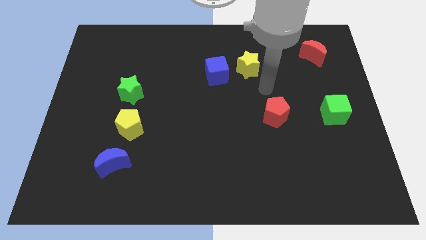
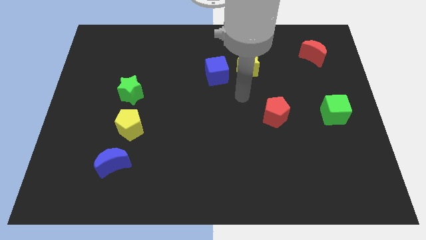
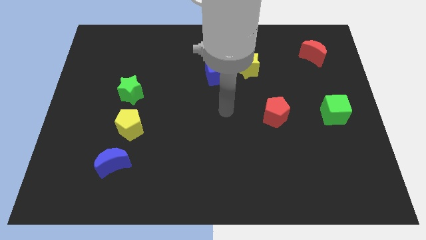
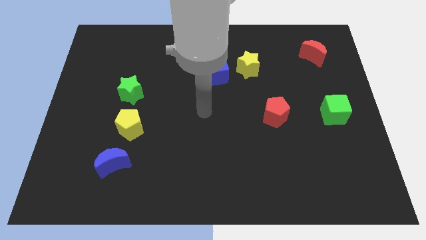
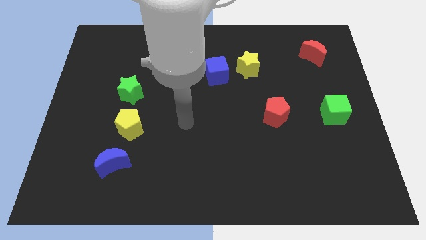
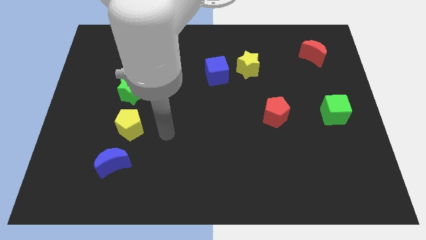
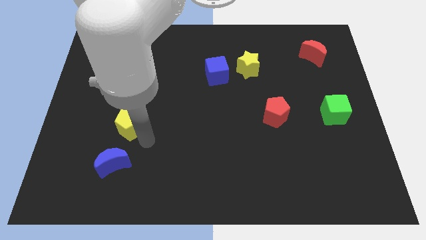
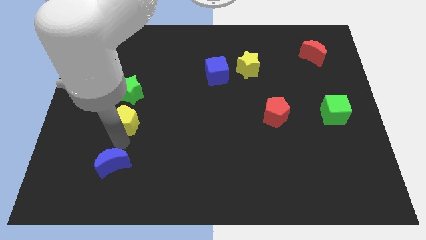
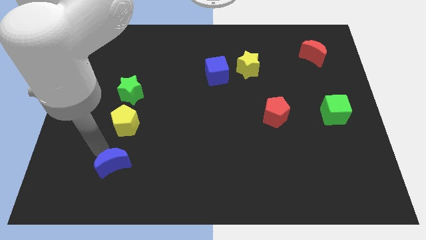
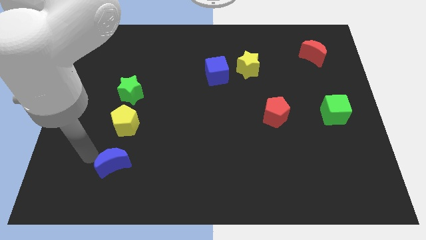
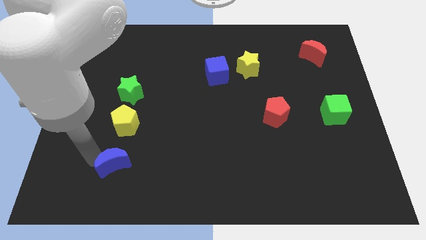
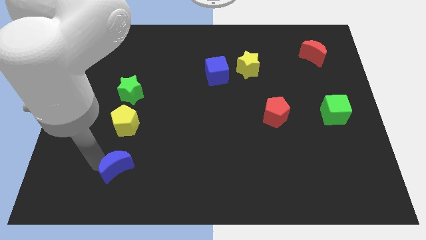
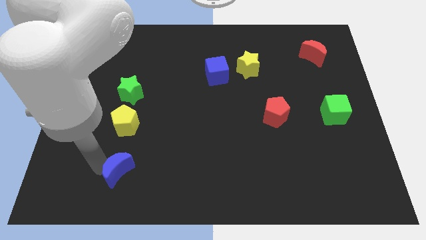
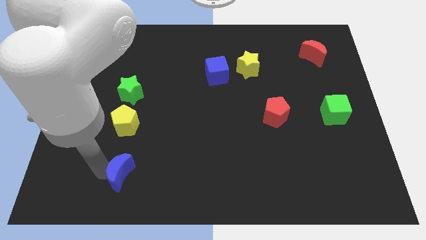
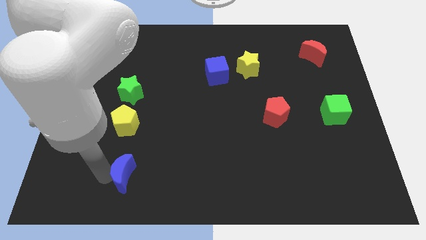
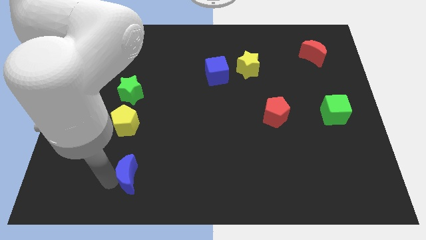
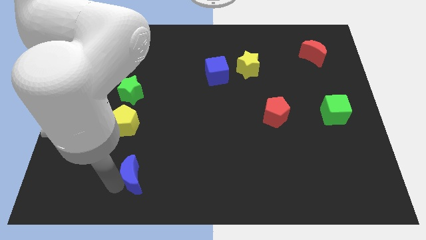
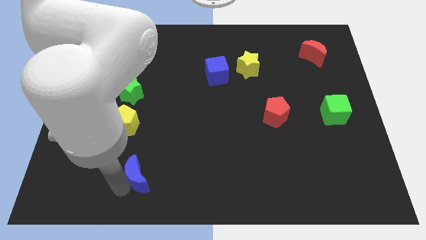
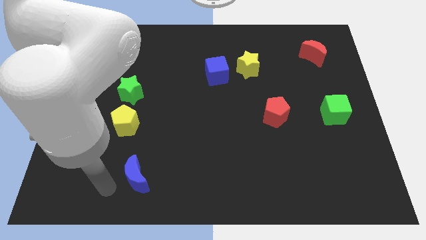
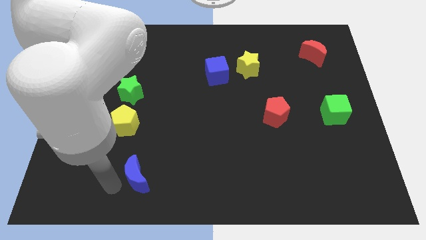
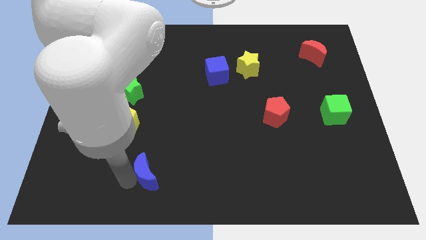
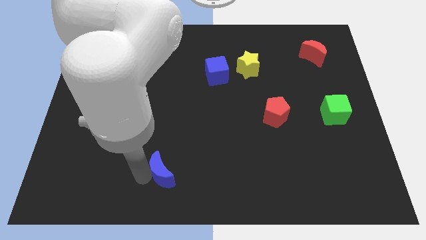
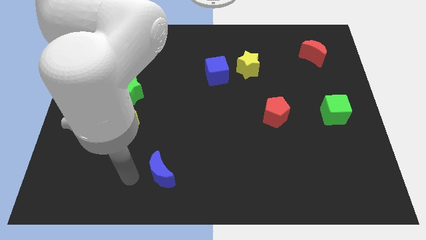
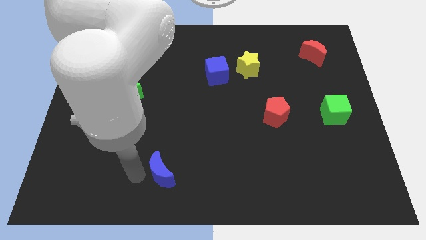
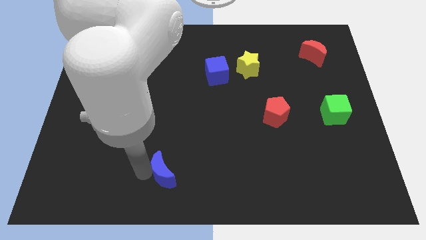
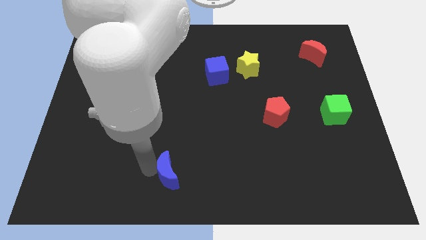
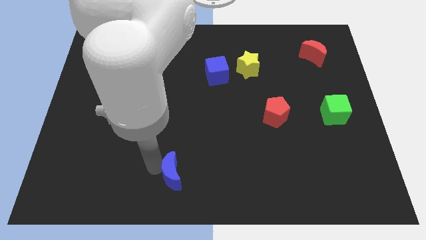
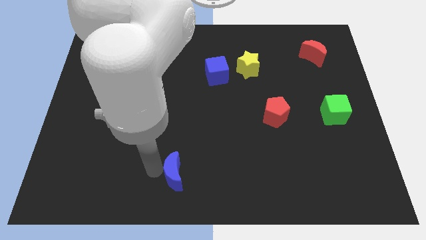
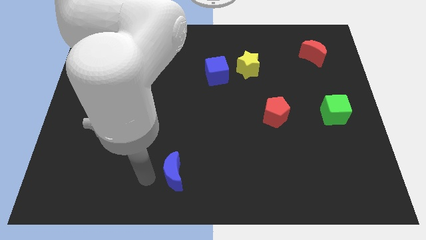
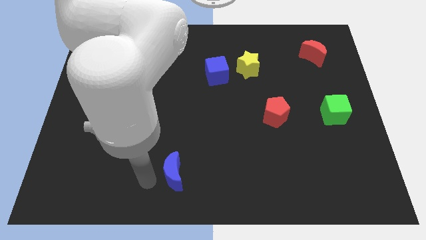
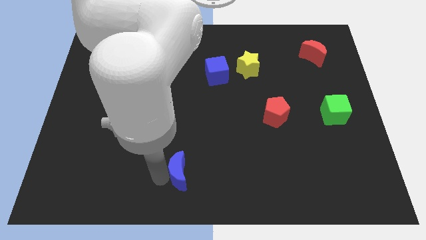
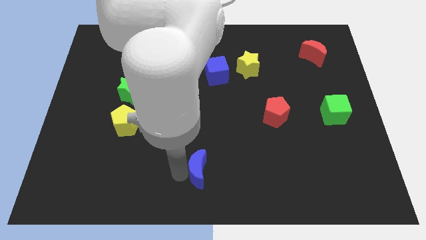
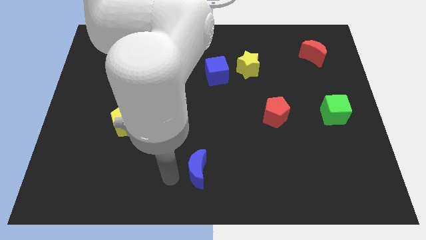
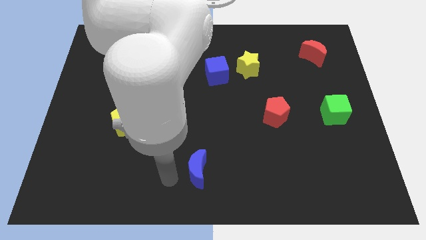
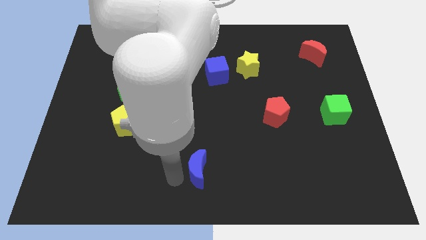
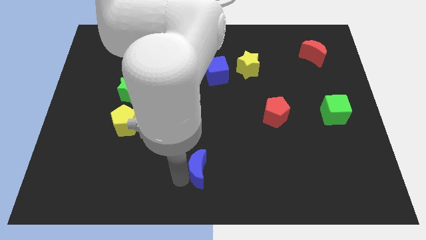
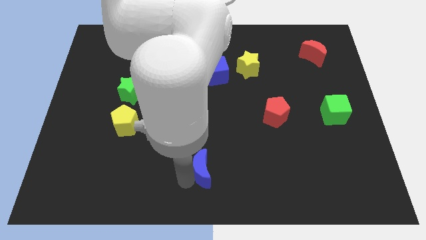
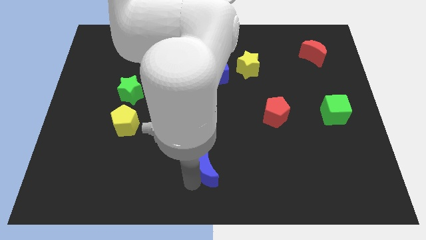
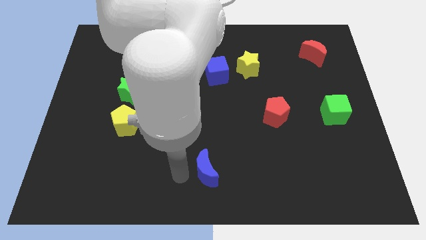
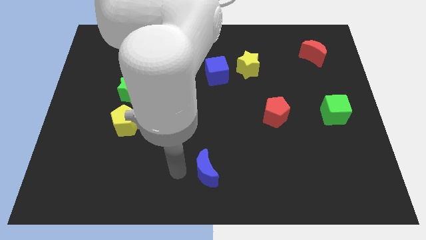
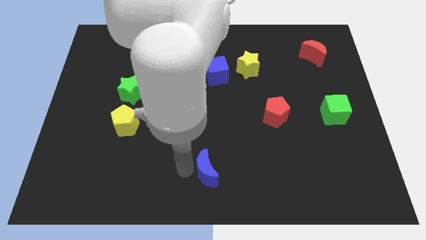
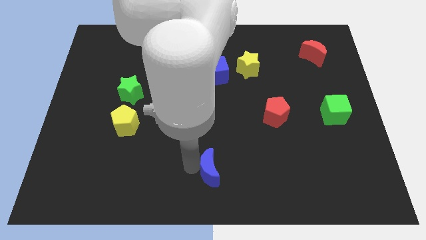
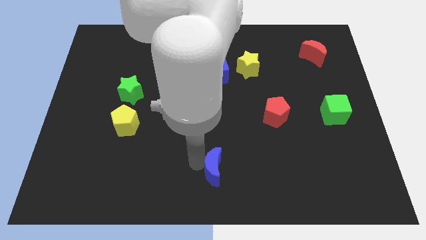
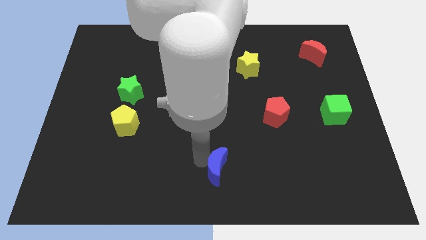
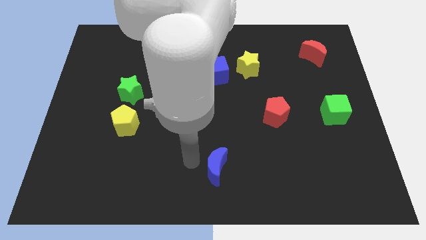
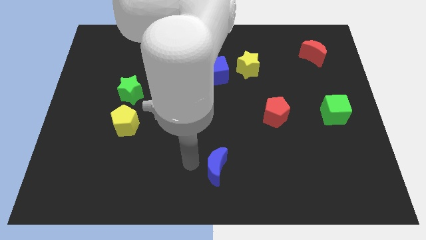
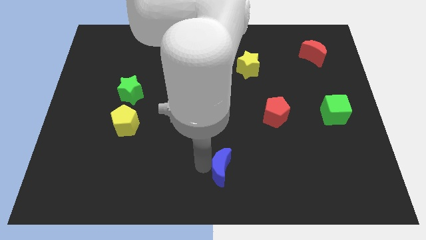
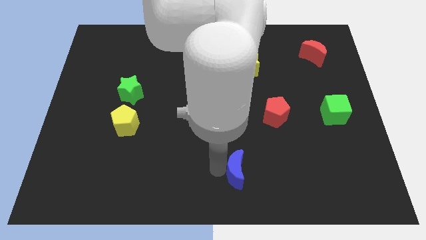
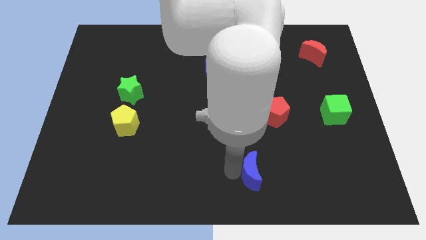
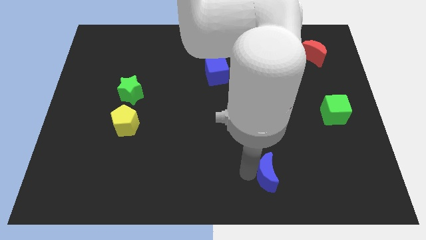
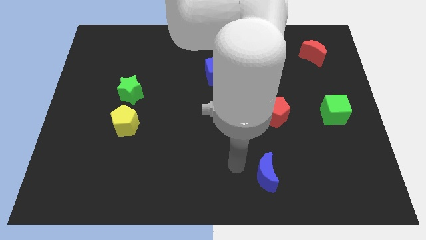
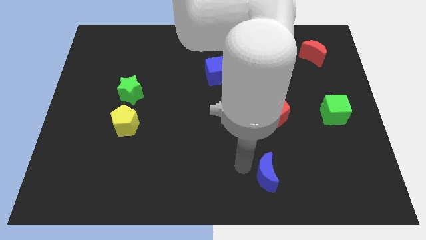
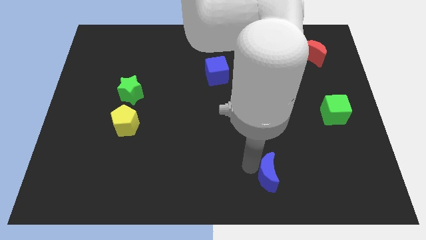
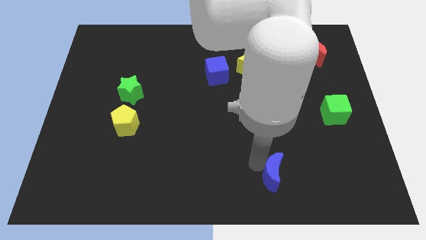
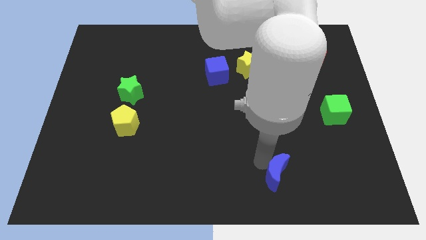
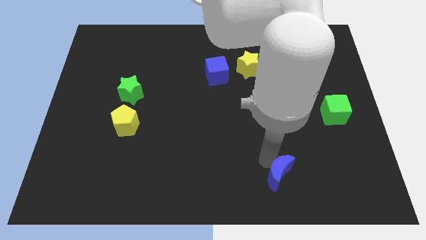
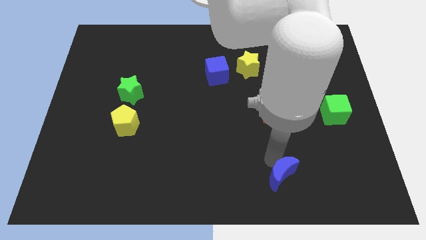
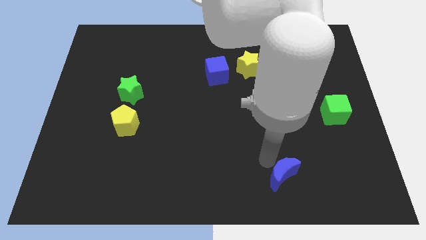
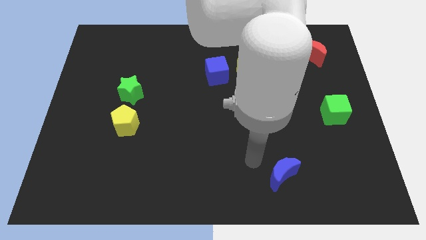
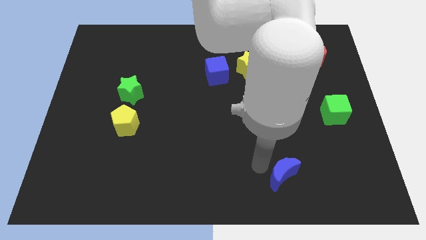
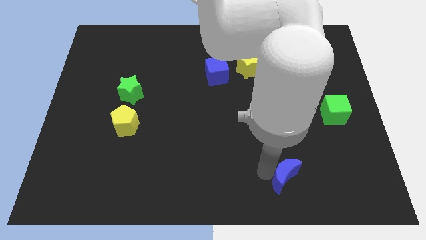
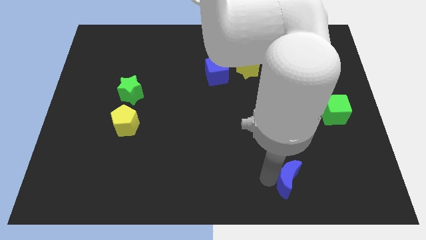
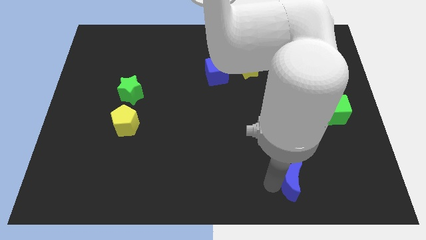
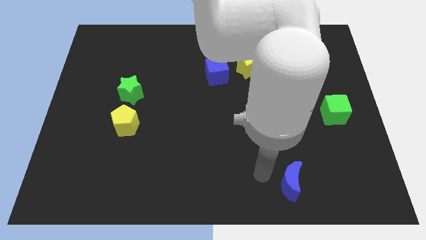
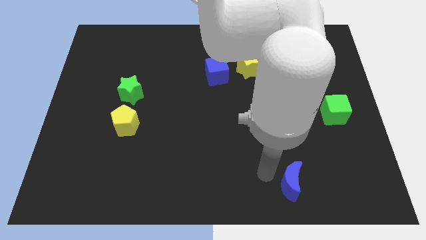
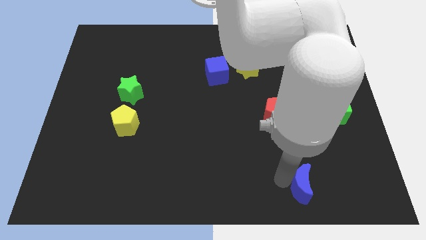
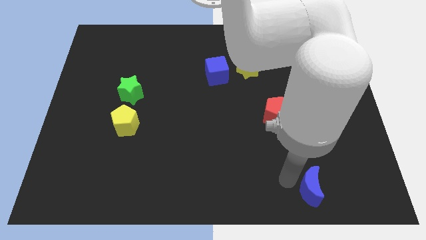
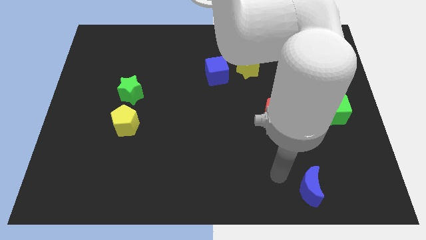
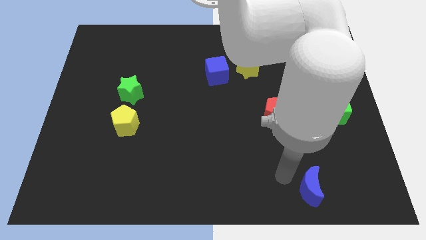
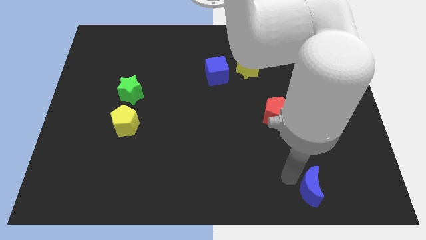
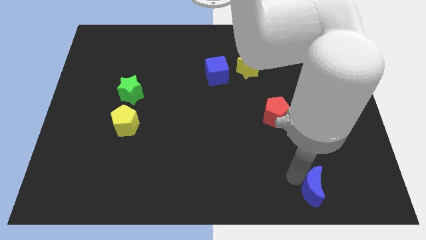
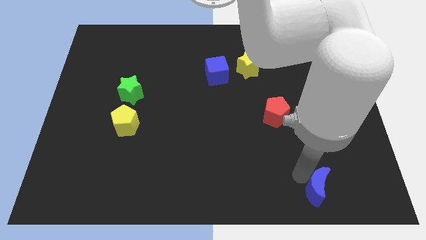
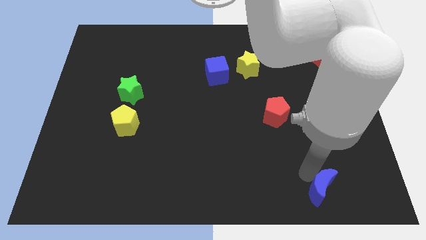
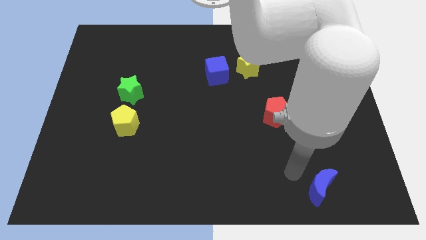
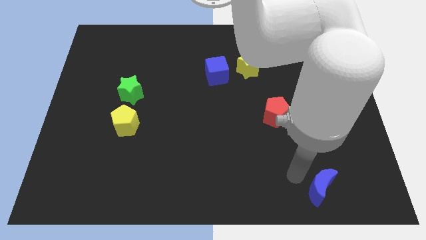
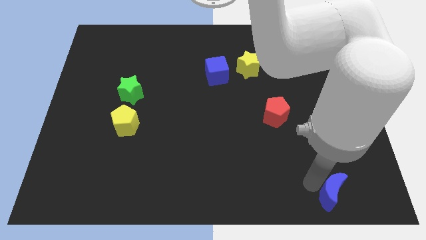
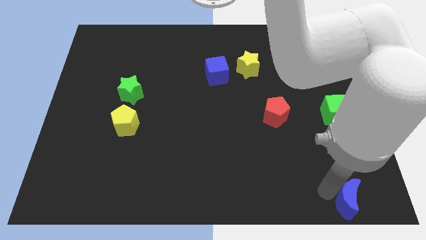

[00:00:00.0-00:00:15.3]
slide the blue moon to the lower right corner
